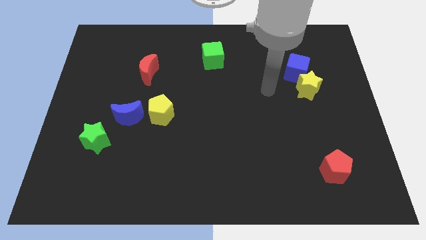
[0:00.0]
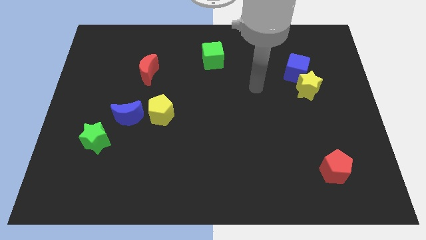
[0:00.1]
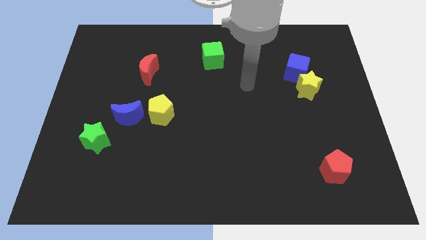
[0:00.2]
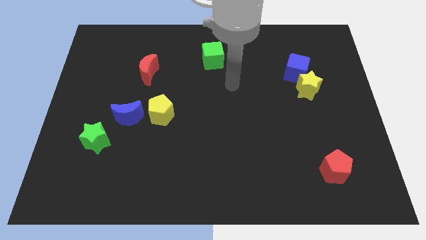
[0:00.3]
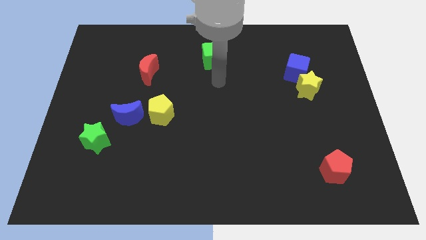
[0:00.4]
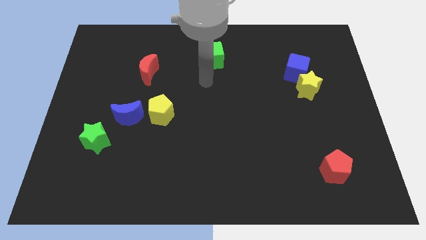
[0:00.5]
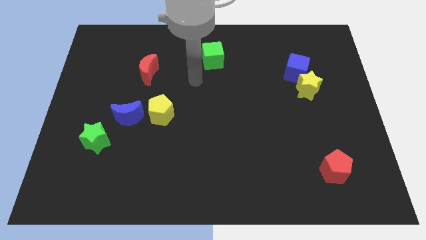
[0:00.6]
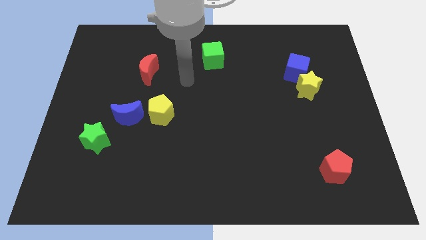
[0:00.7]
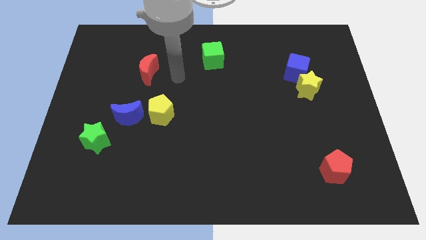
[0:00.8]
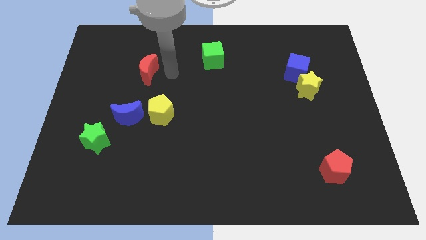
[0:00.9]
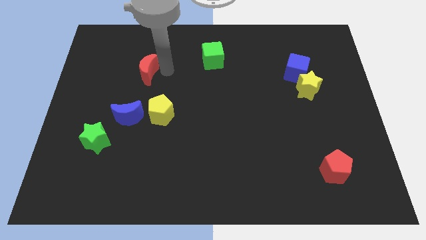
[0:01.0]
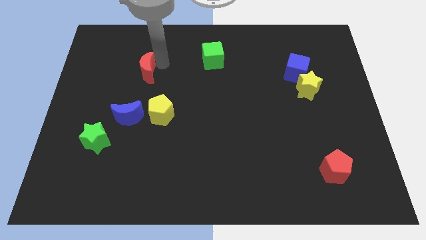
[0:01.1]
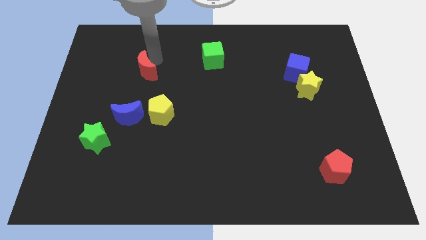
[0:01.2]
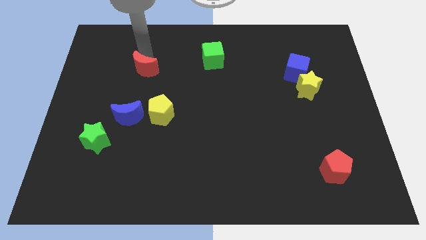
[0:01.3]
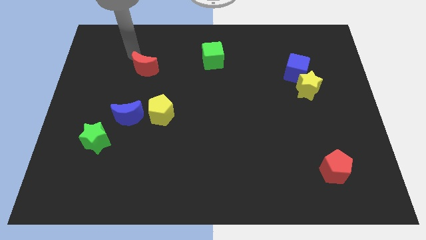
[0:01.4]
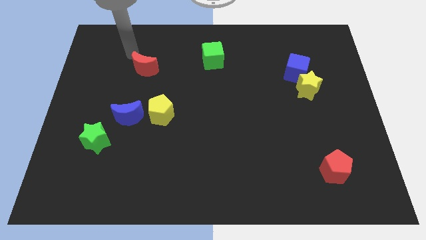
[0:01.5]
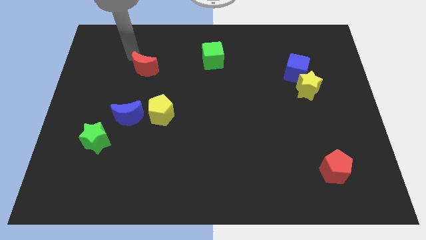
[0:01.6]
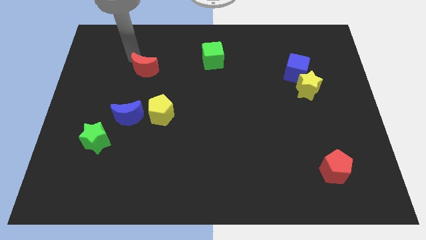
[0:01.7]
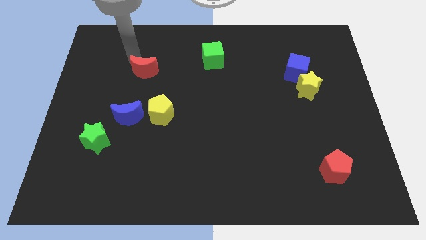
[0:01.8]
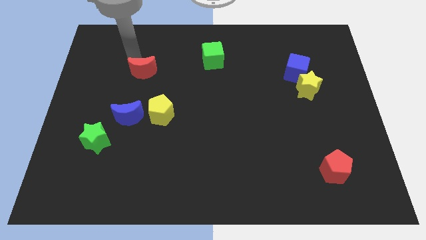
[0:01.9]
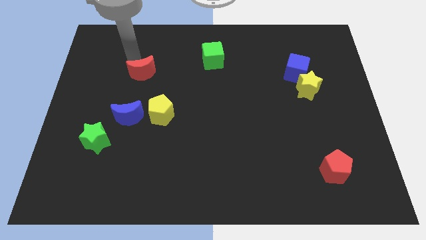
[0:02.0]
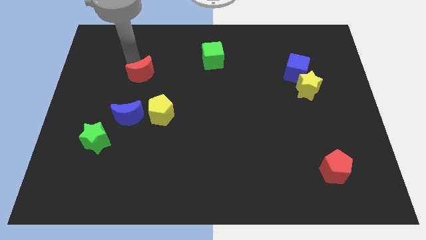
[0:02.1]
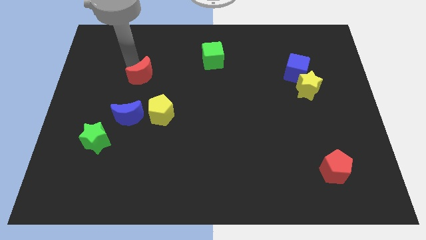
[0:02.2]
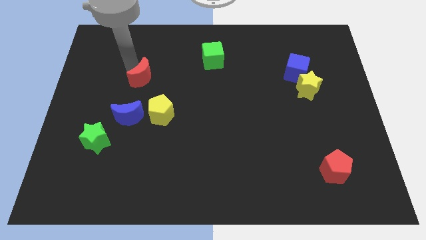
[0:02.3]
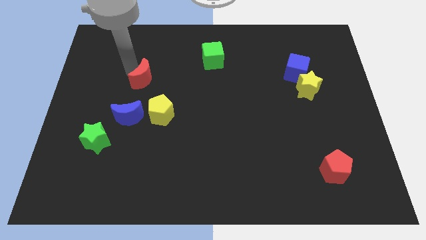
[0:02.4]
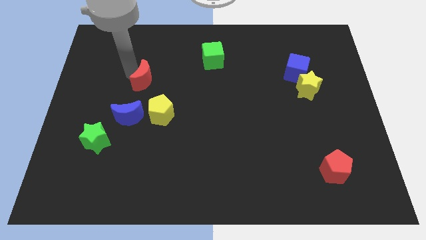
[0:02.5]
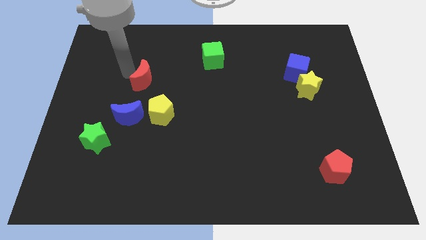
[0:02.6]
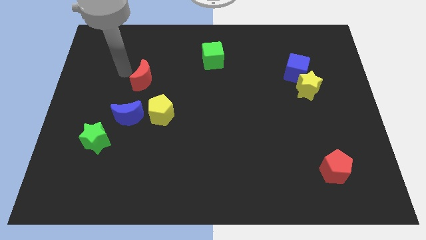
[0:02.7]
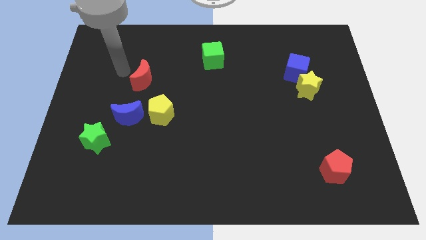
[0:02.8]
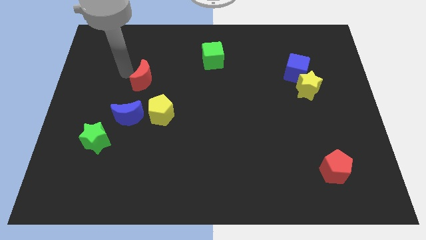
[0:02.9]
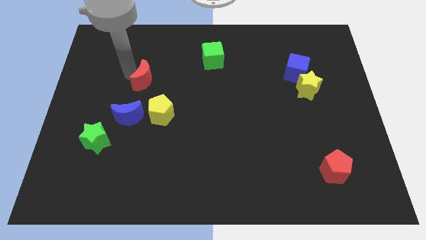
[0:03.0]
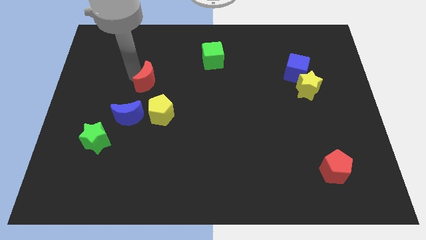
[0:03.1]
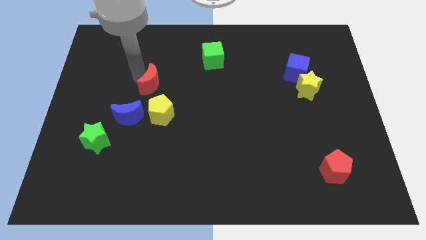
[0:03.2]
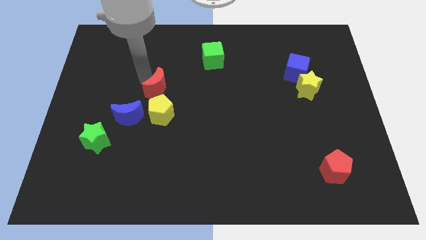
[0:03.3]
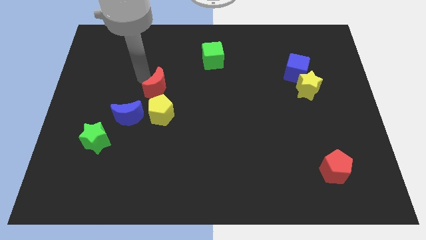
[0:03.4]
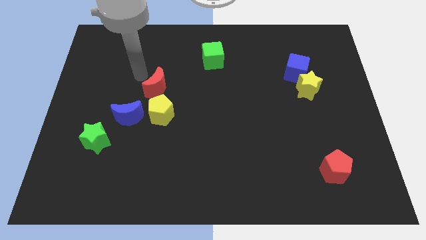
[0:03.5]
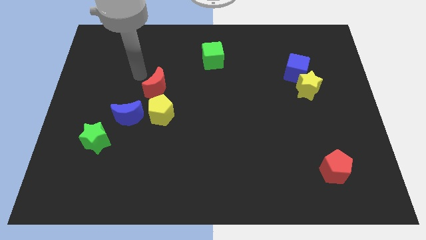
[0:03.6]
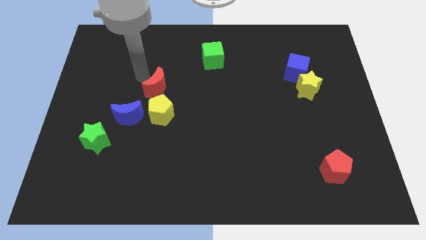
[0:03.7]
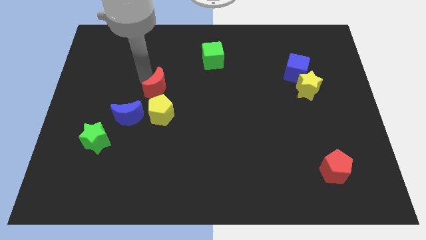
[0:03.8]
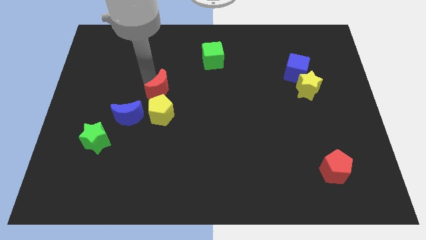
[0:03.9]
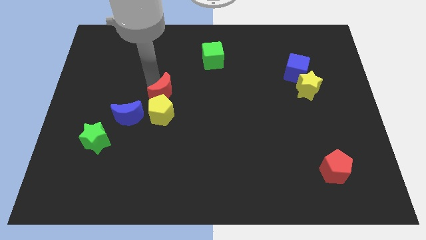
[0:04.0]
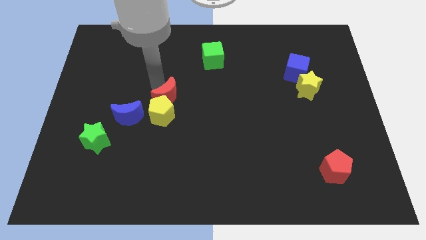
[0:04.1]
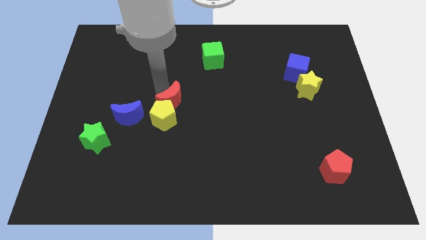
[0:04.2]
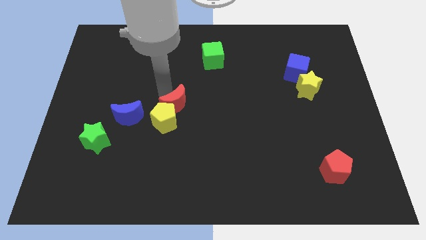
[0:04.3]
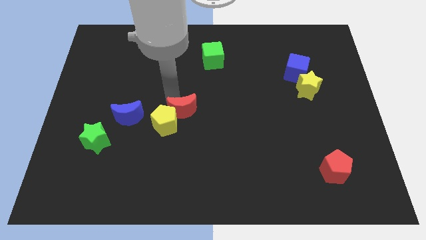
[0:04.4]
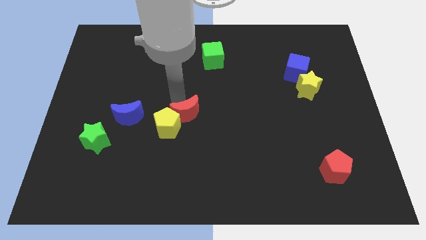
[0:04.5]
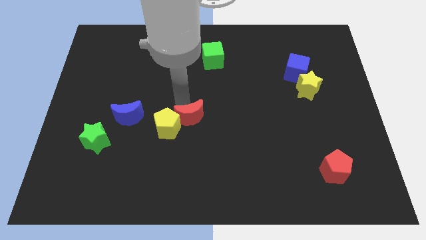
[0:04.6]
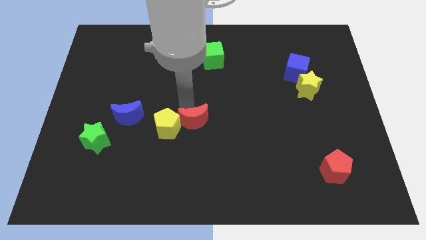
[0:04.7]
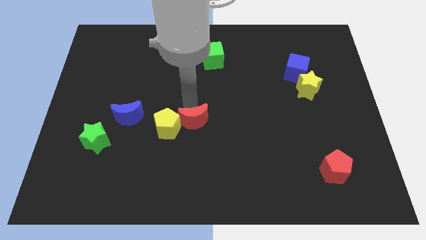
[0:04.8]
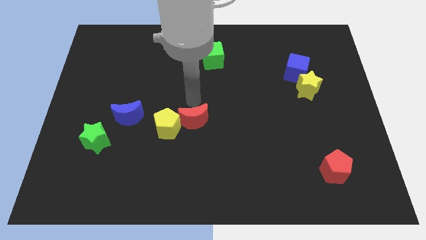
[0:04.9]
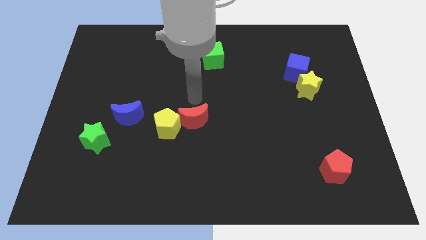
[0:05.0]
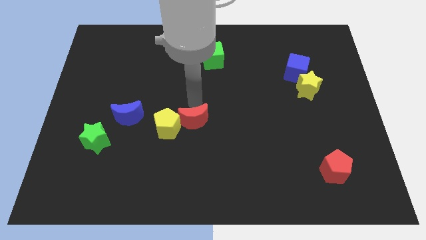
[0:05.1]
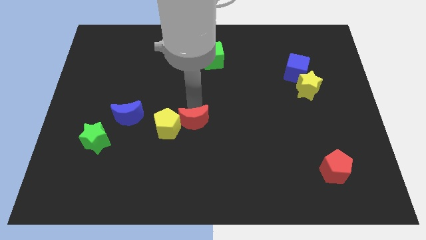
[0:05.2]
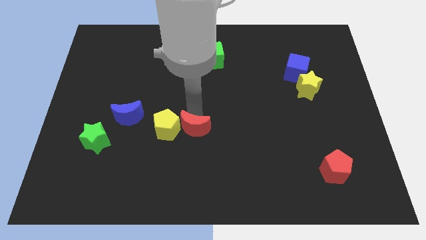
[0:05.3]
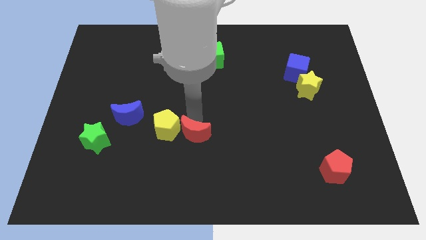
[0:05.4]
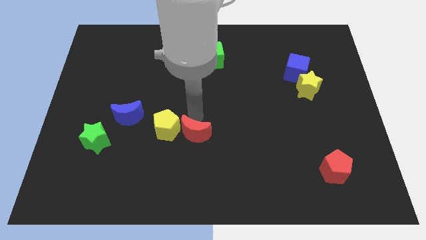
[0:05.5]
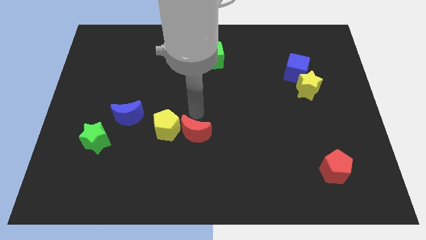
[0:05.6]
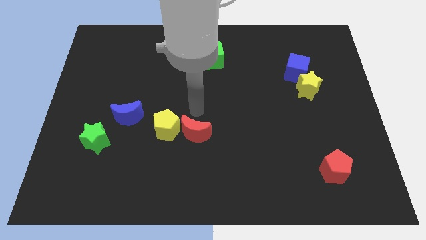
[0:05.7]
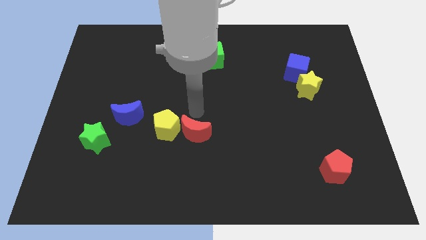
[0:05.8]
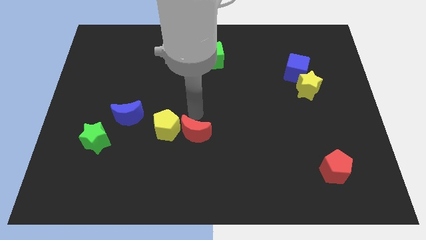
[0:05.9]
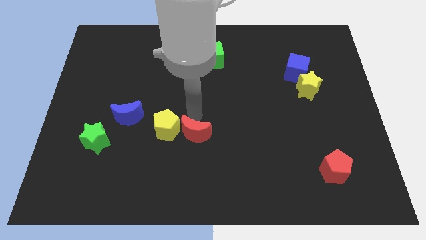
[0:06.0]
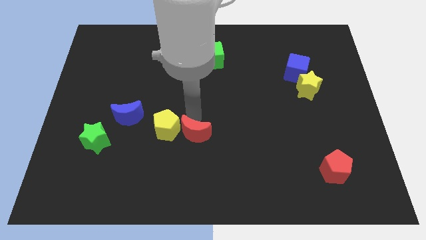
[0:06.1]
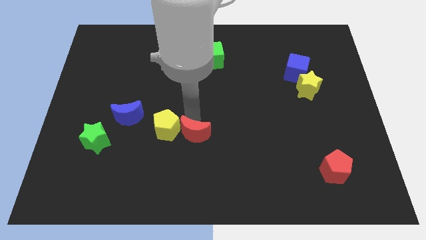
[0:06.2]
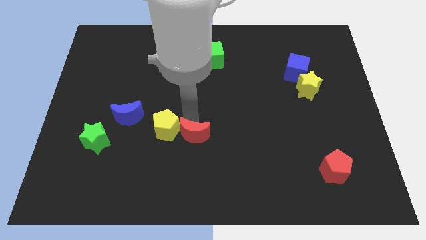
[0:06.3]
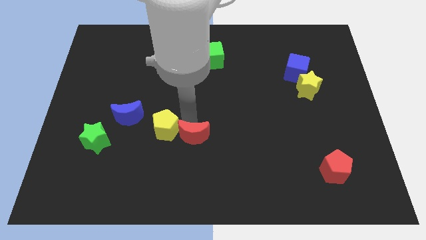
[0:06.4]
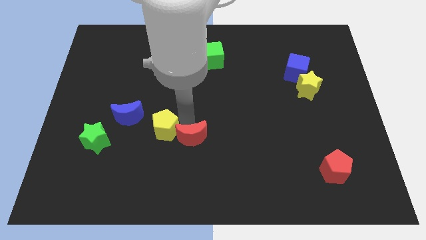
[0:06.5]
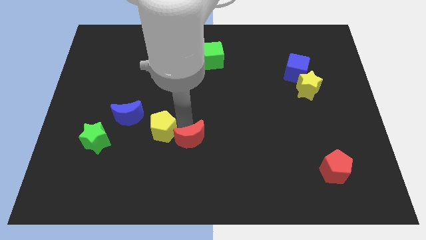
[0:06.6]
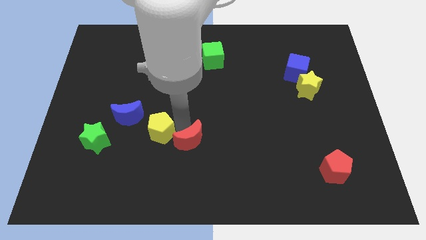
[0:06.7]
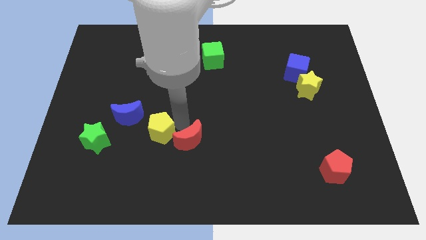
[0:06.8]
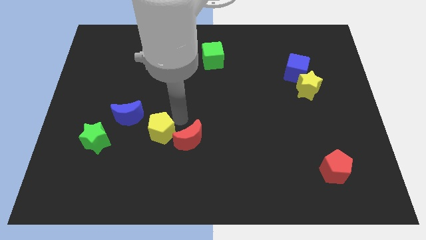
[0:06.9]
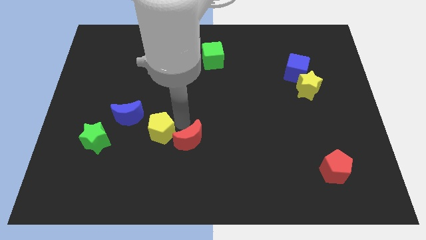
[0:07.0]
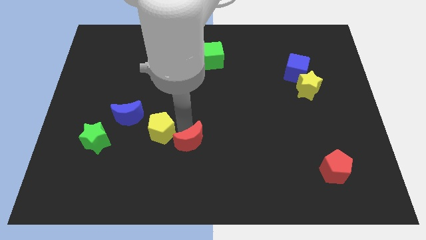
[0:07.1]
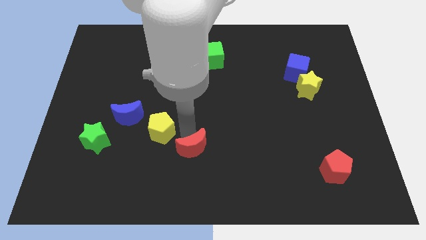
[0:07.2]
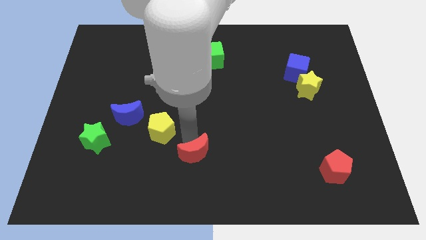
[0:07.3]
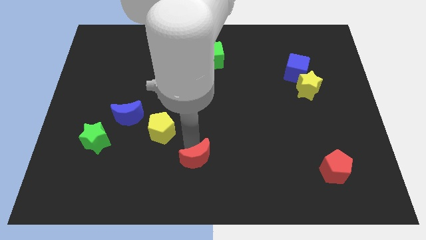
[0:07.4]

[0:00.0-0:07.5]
push the red moon to the bottom

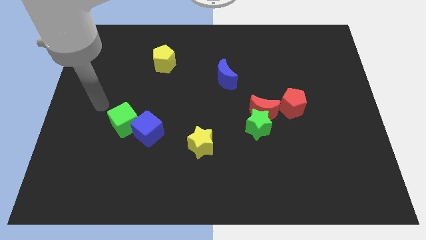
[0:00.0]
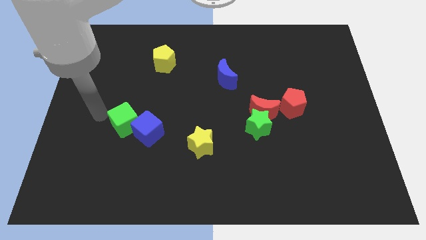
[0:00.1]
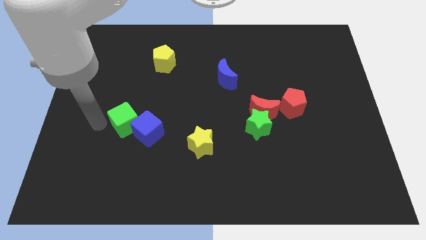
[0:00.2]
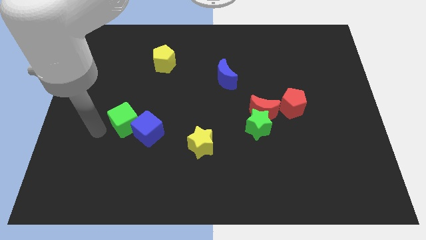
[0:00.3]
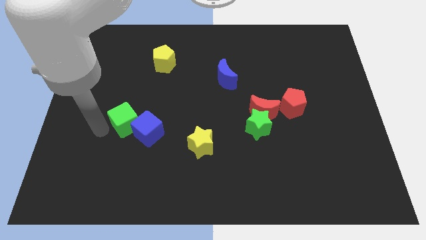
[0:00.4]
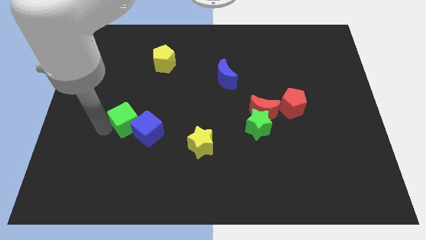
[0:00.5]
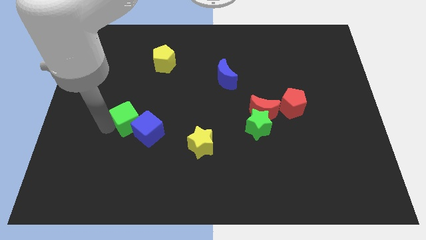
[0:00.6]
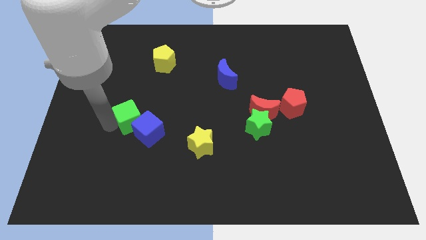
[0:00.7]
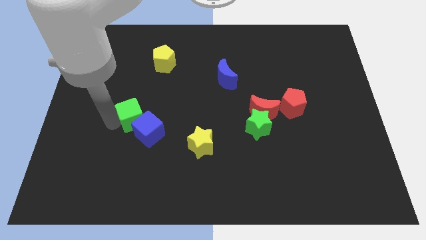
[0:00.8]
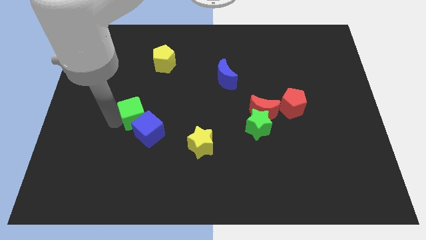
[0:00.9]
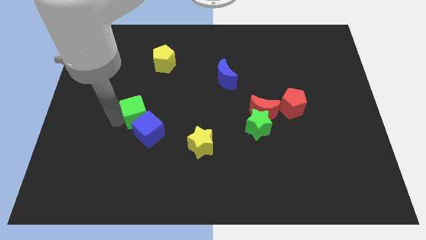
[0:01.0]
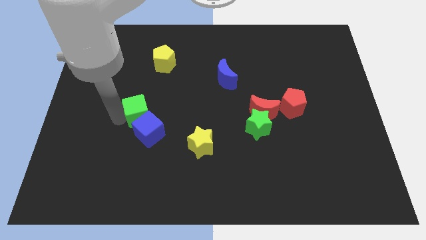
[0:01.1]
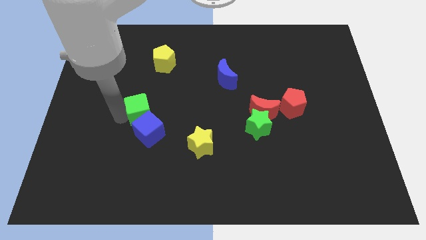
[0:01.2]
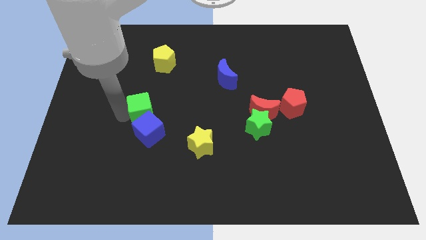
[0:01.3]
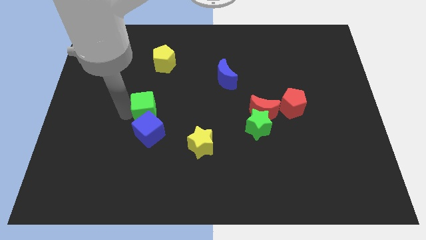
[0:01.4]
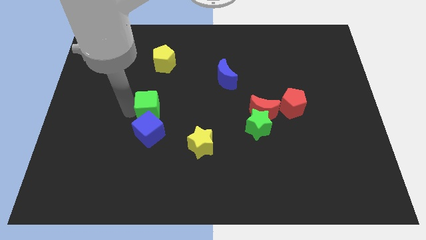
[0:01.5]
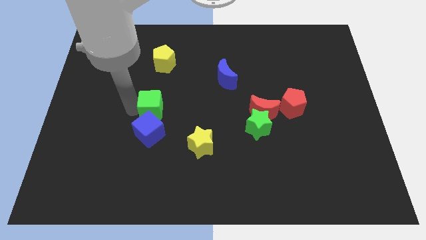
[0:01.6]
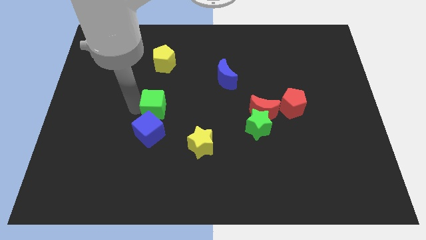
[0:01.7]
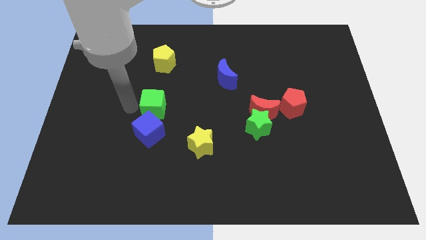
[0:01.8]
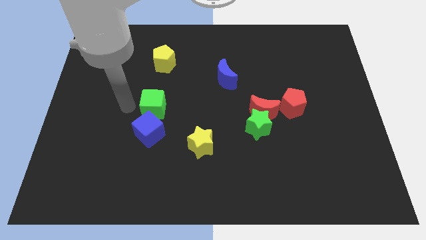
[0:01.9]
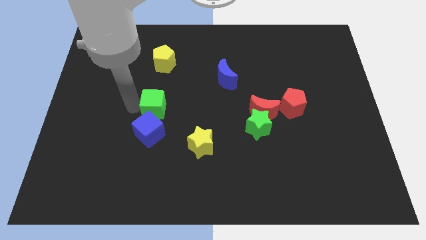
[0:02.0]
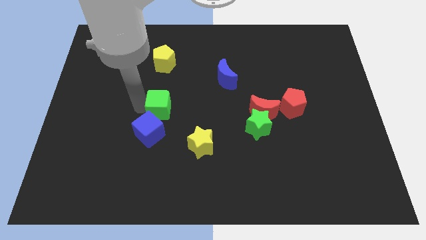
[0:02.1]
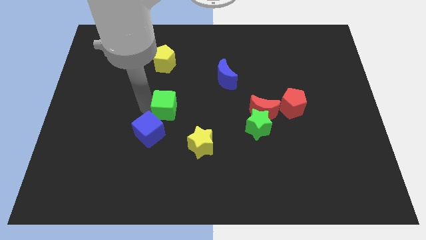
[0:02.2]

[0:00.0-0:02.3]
put the green cube to the middle of the board
